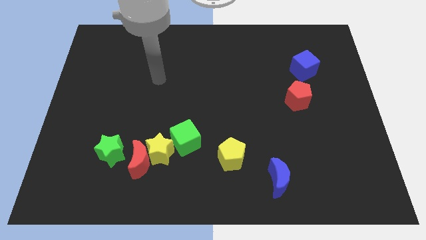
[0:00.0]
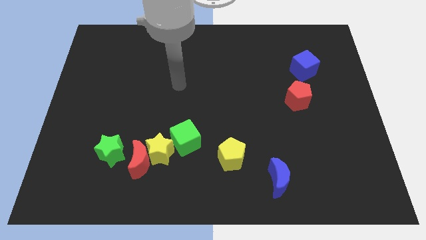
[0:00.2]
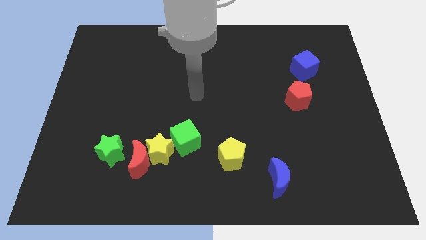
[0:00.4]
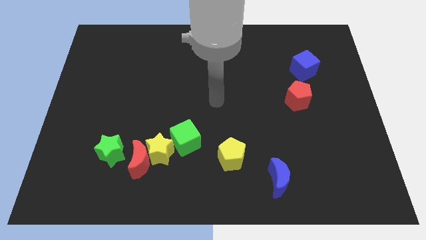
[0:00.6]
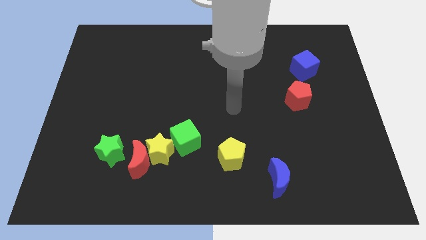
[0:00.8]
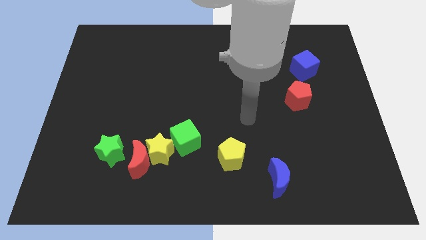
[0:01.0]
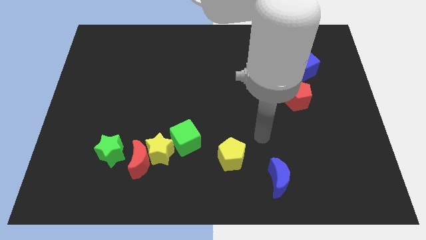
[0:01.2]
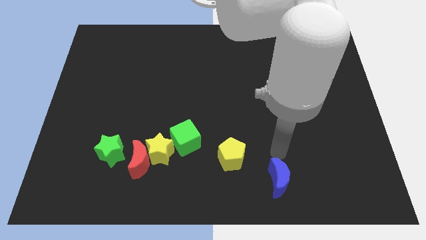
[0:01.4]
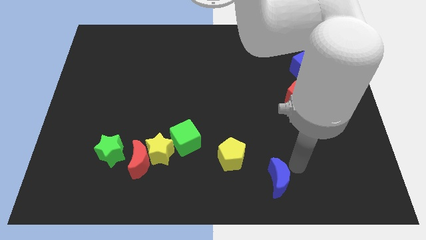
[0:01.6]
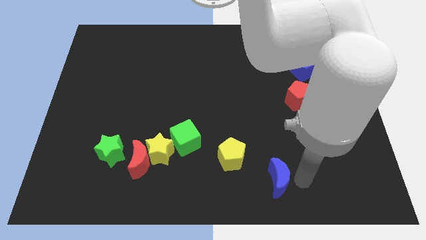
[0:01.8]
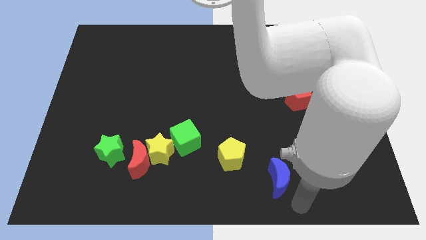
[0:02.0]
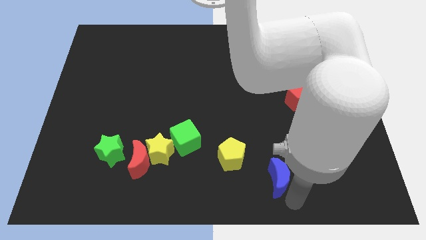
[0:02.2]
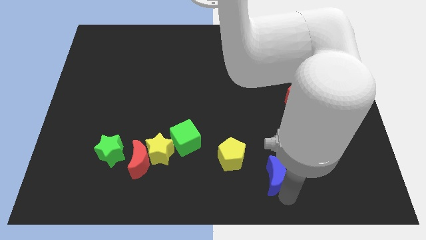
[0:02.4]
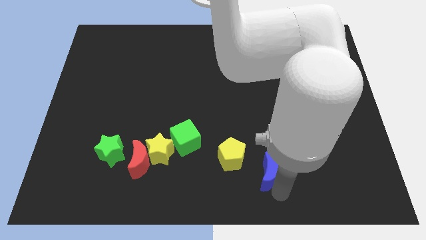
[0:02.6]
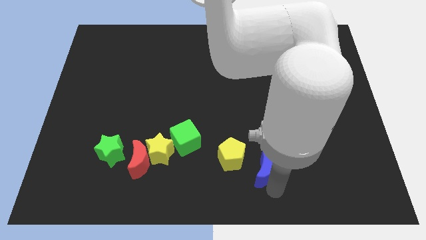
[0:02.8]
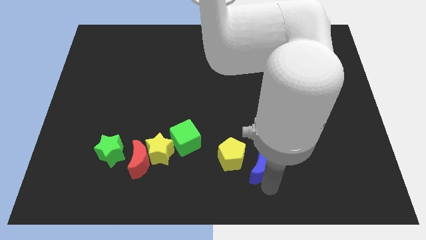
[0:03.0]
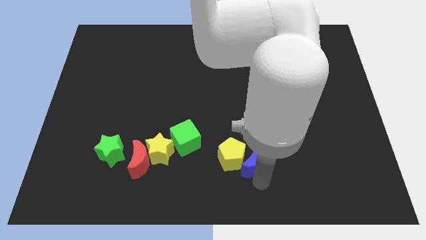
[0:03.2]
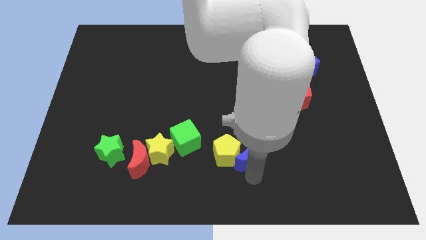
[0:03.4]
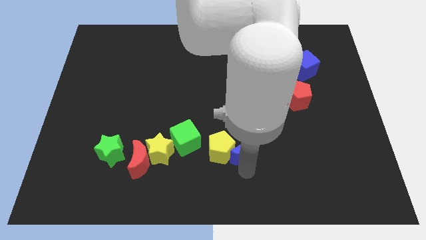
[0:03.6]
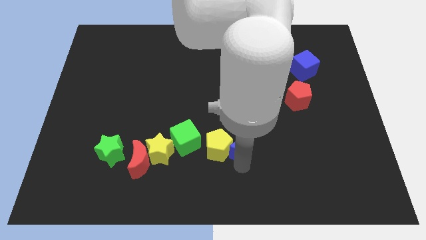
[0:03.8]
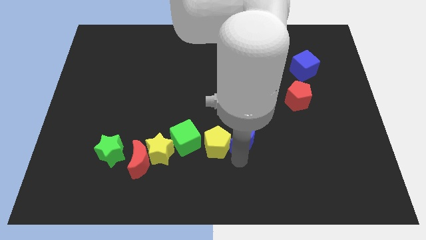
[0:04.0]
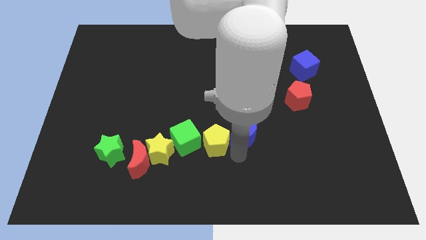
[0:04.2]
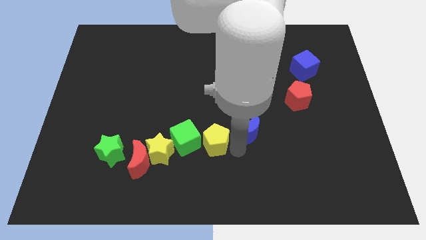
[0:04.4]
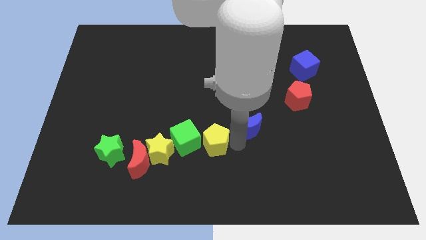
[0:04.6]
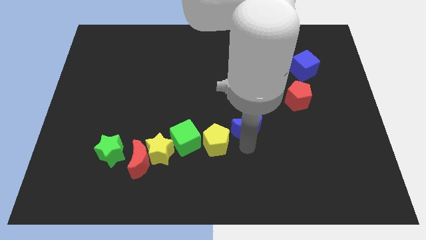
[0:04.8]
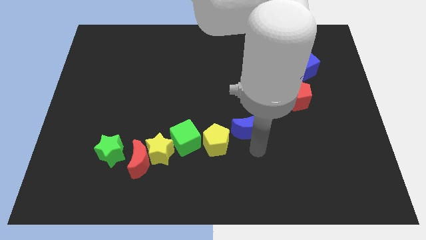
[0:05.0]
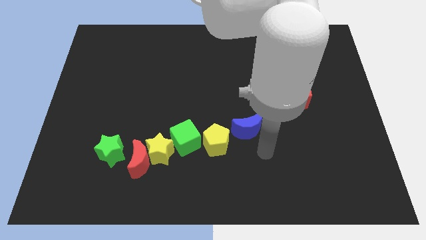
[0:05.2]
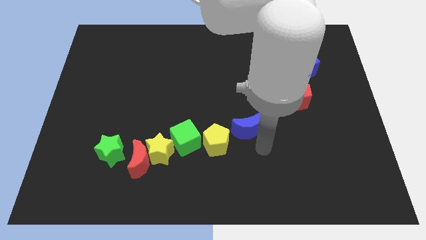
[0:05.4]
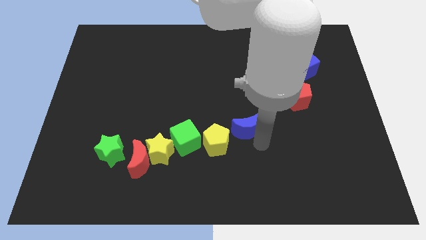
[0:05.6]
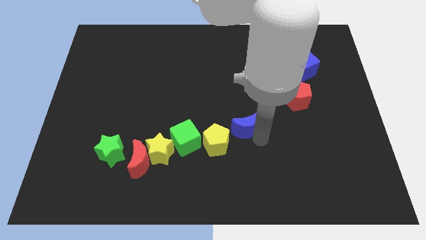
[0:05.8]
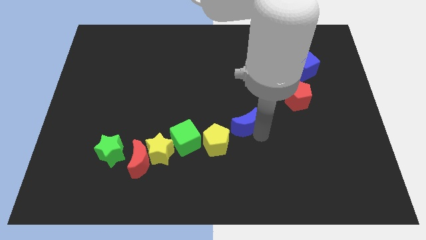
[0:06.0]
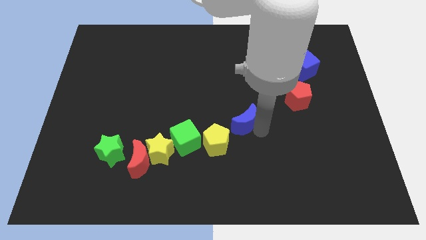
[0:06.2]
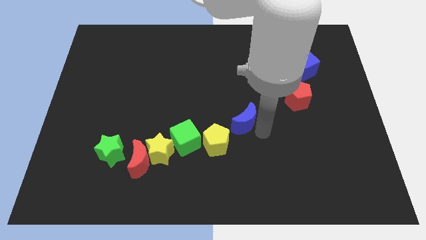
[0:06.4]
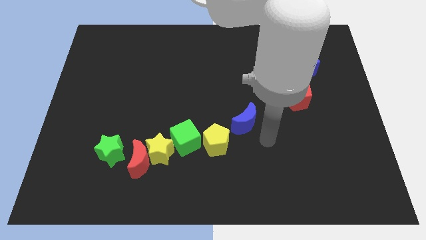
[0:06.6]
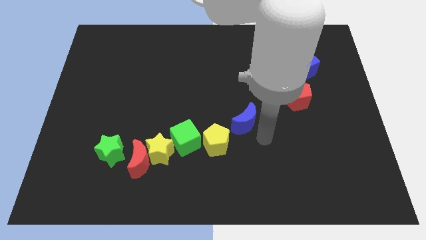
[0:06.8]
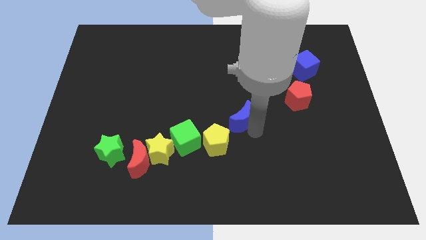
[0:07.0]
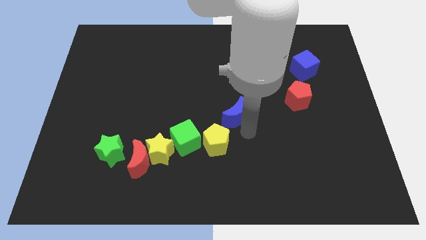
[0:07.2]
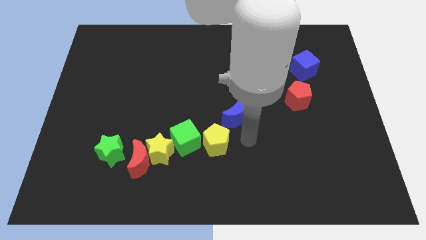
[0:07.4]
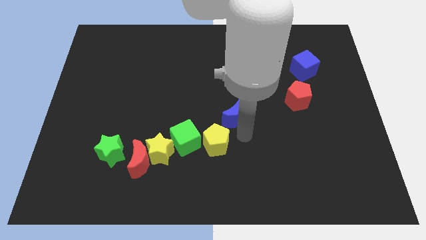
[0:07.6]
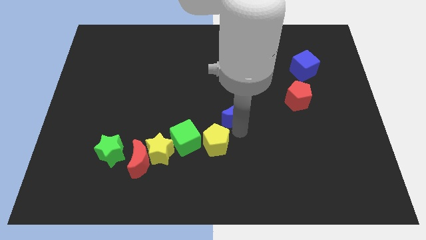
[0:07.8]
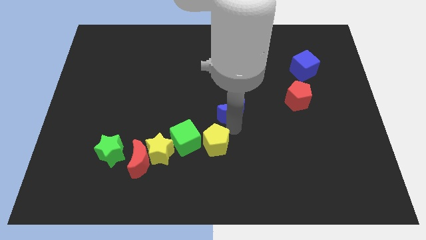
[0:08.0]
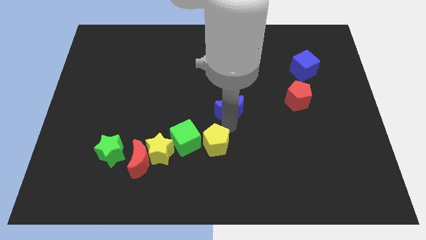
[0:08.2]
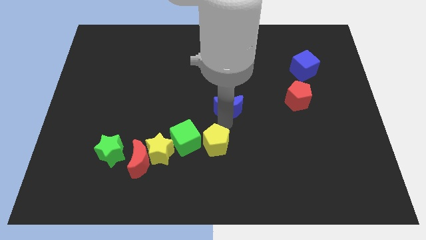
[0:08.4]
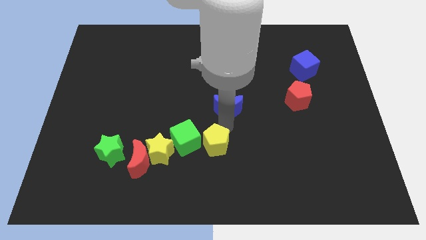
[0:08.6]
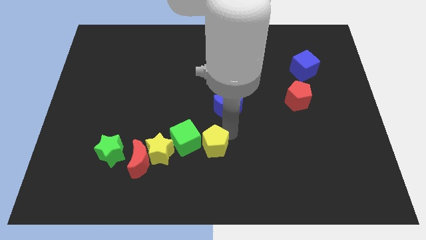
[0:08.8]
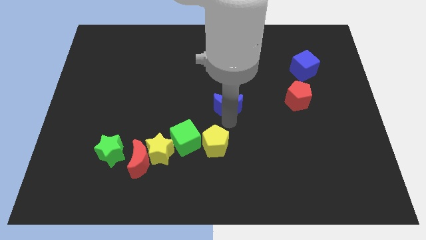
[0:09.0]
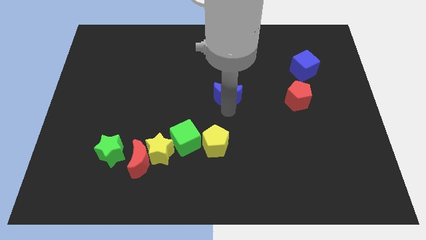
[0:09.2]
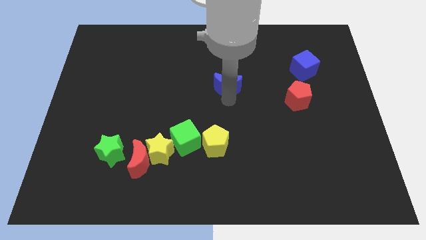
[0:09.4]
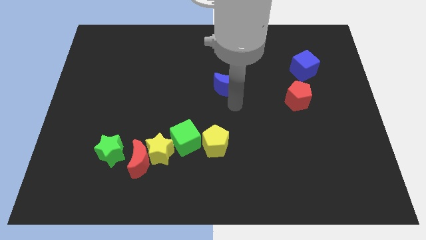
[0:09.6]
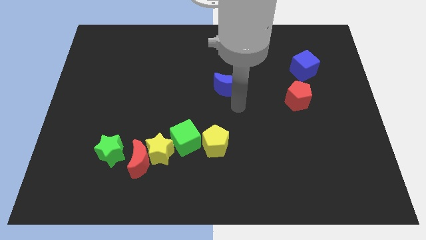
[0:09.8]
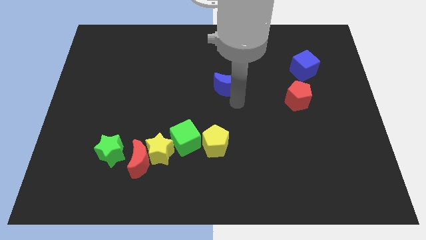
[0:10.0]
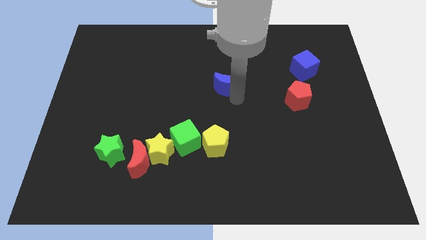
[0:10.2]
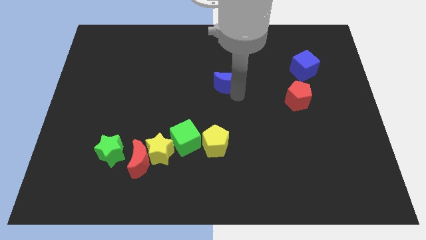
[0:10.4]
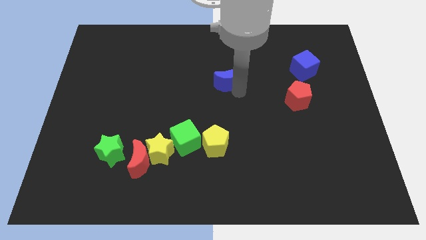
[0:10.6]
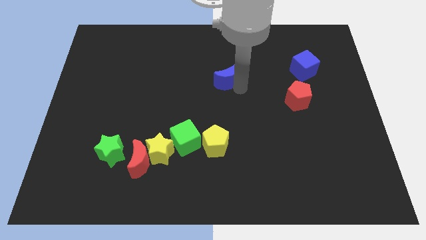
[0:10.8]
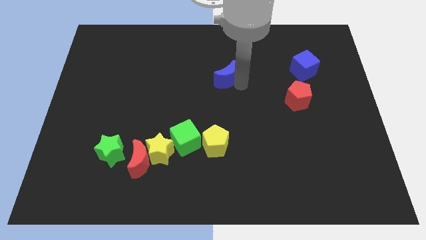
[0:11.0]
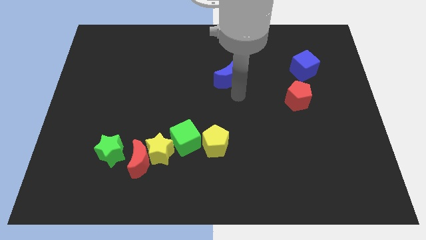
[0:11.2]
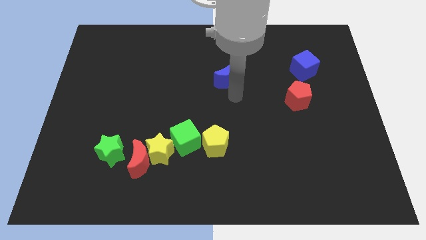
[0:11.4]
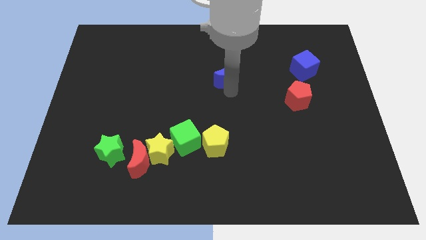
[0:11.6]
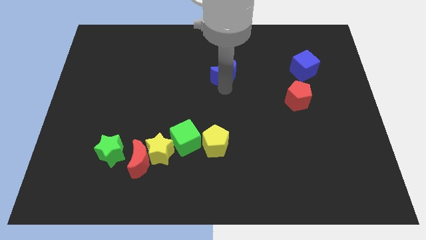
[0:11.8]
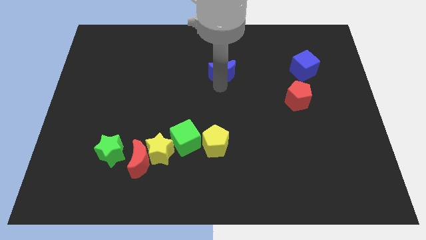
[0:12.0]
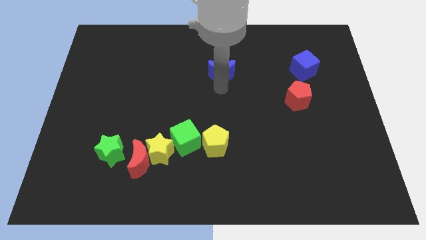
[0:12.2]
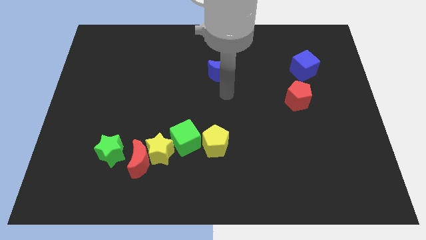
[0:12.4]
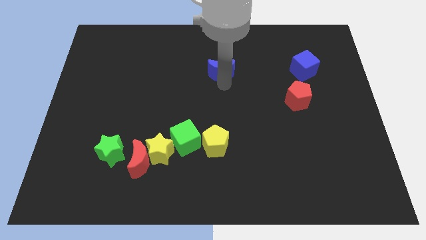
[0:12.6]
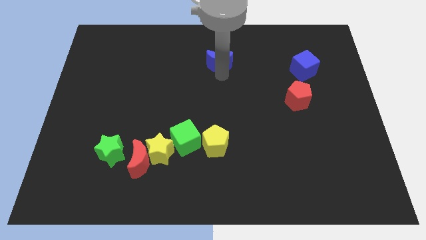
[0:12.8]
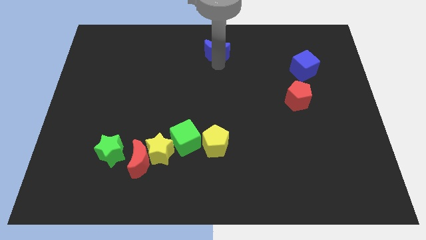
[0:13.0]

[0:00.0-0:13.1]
move the blue moon to the top side

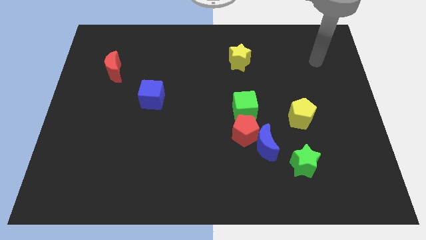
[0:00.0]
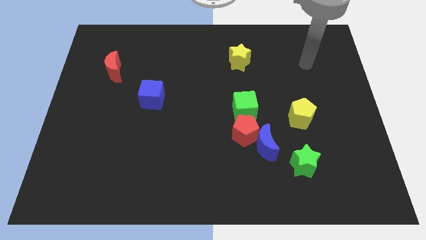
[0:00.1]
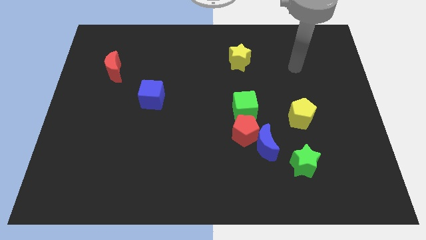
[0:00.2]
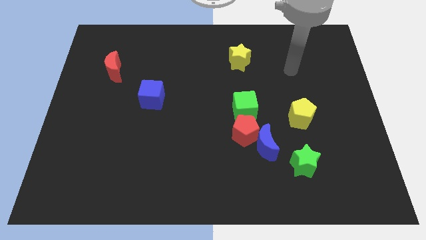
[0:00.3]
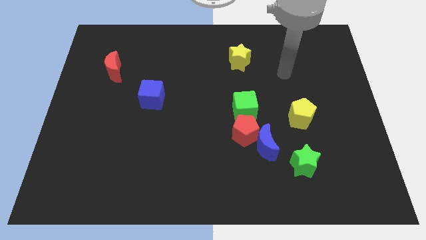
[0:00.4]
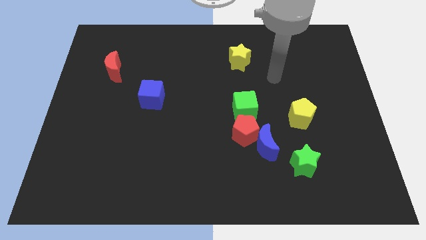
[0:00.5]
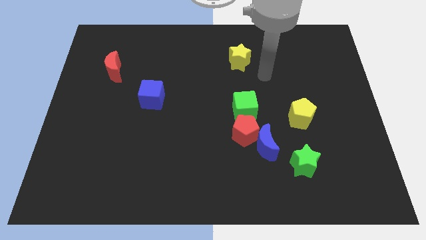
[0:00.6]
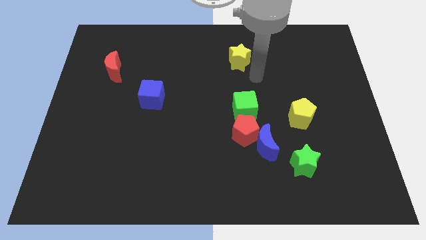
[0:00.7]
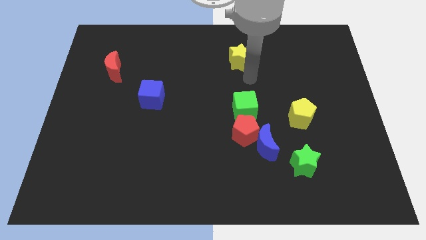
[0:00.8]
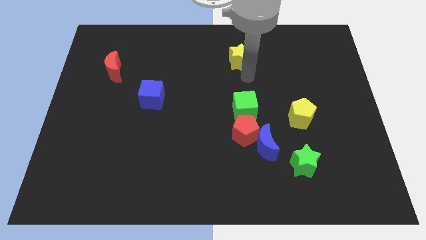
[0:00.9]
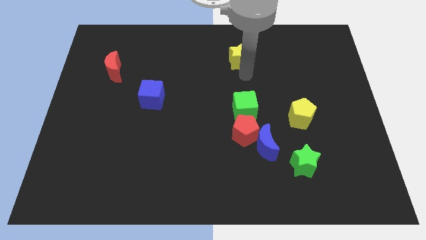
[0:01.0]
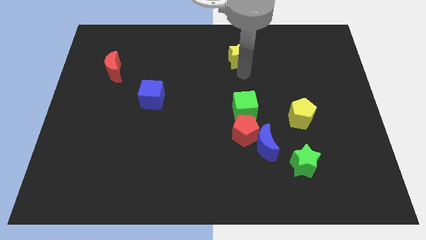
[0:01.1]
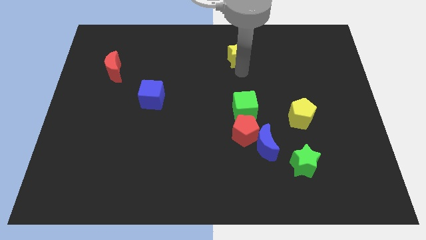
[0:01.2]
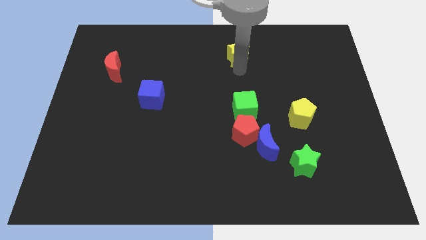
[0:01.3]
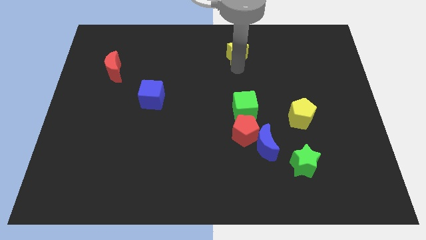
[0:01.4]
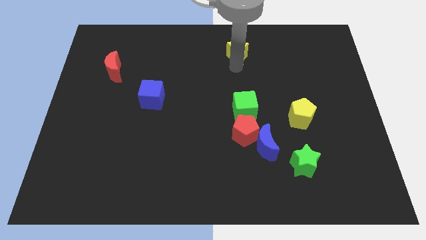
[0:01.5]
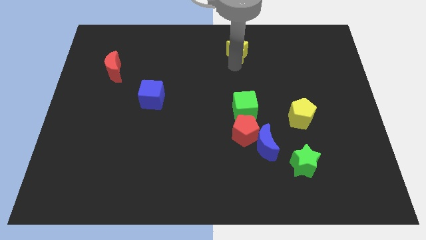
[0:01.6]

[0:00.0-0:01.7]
put the yellow star to the top
